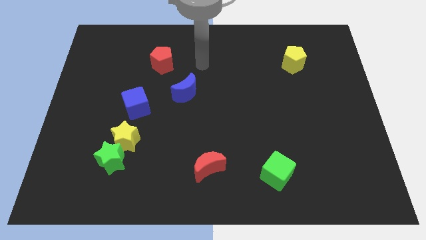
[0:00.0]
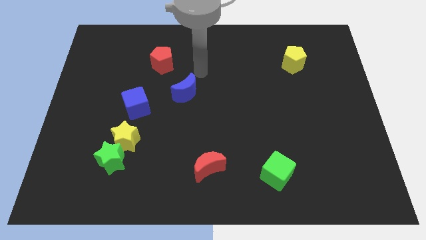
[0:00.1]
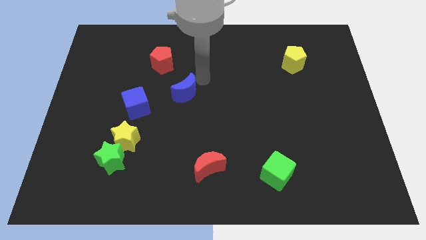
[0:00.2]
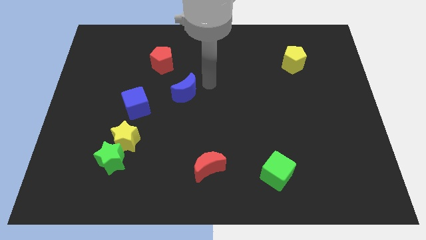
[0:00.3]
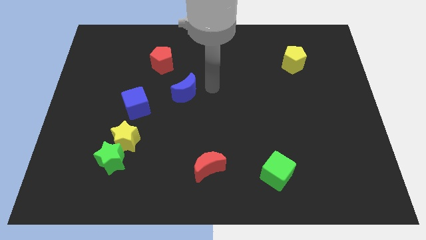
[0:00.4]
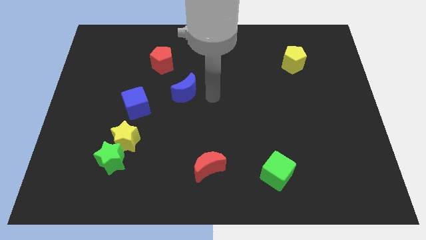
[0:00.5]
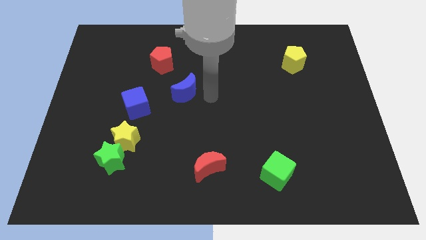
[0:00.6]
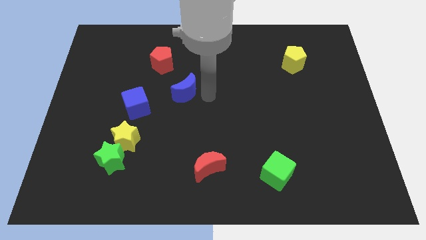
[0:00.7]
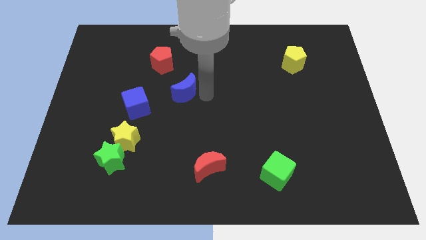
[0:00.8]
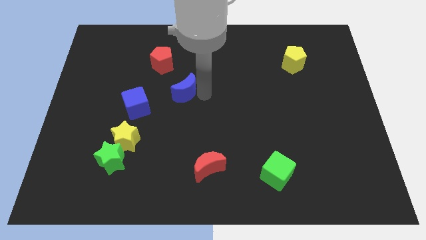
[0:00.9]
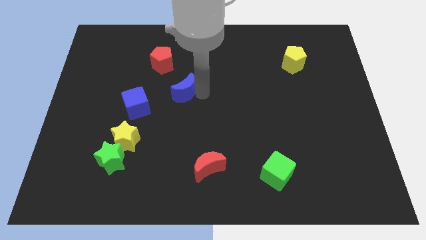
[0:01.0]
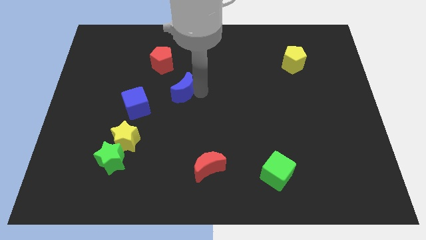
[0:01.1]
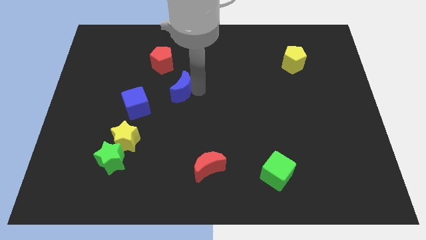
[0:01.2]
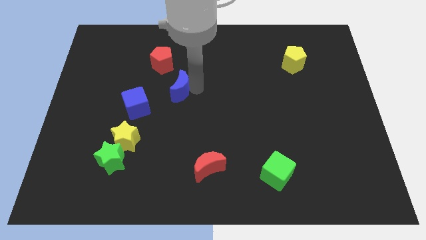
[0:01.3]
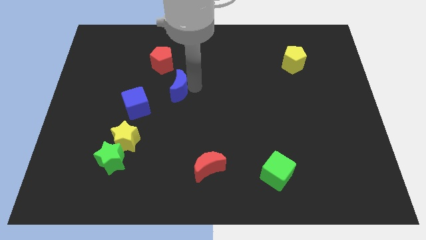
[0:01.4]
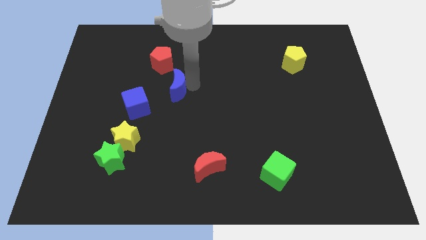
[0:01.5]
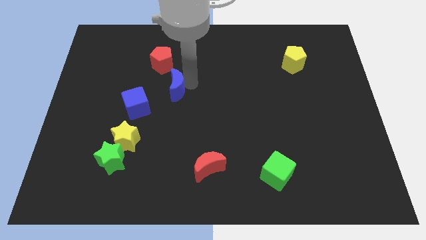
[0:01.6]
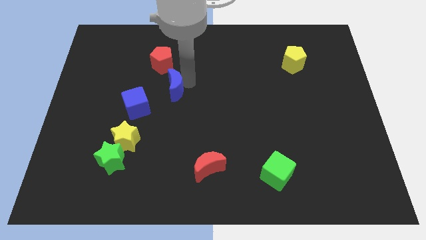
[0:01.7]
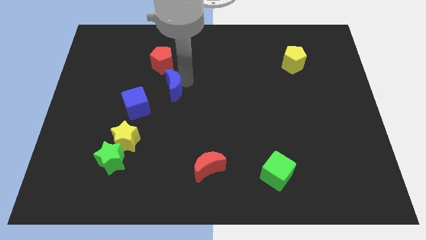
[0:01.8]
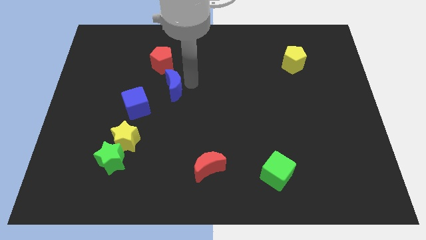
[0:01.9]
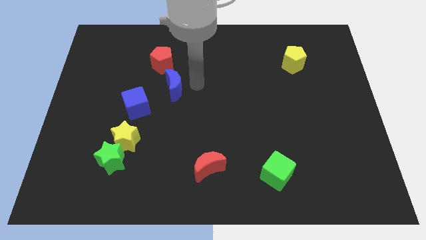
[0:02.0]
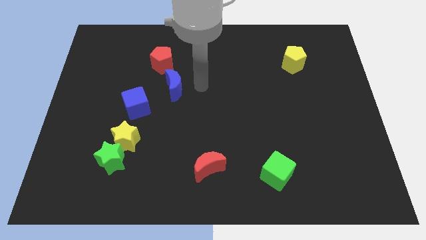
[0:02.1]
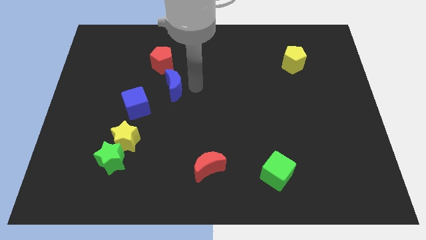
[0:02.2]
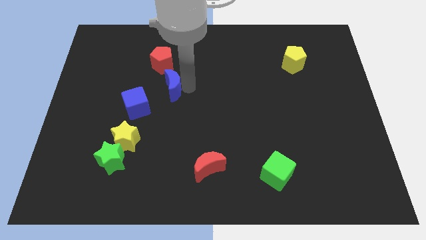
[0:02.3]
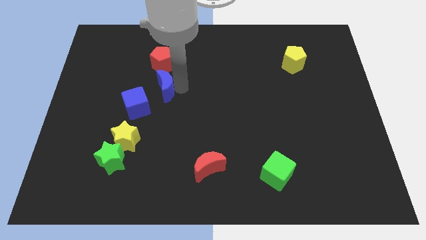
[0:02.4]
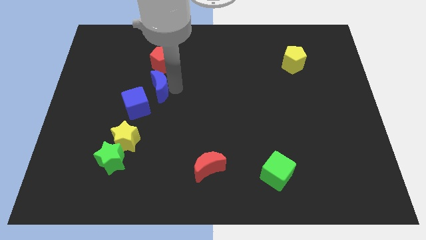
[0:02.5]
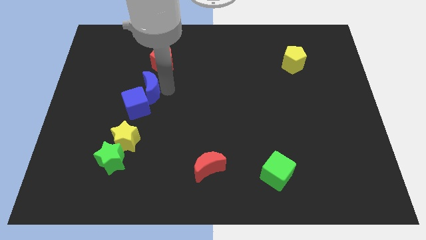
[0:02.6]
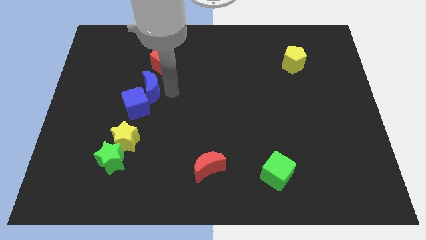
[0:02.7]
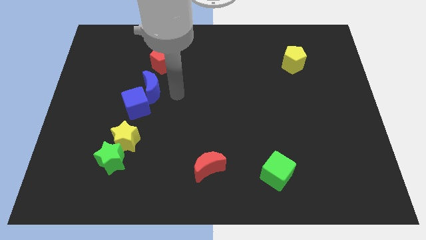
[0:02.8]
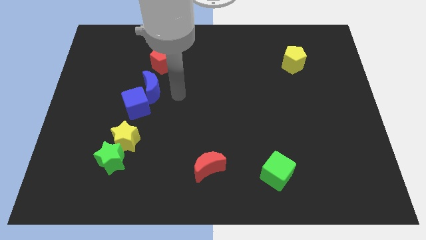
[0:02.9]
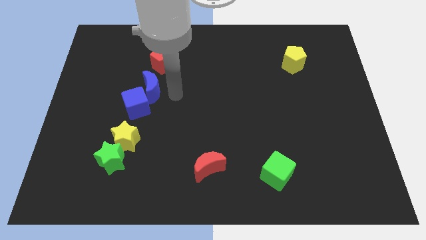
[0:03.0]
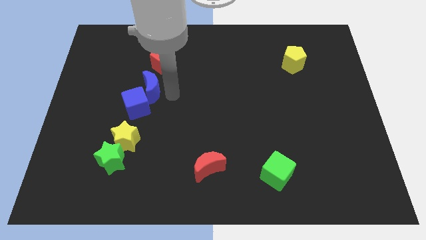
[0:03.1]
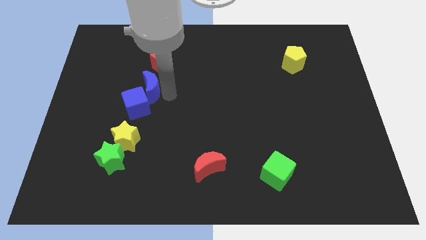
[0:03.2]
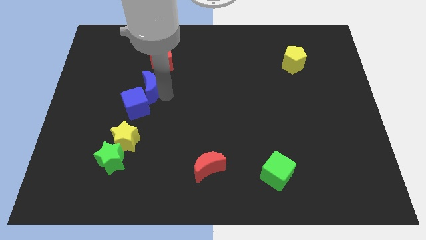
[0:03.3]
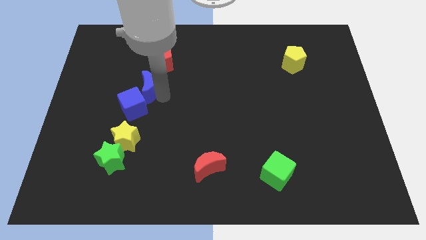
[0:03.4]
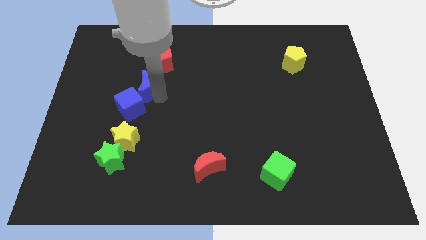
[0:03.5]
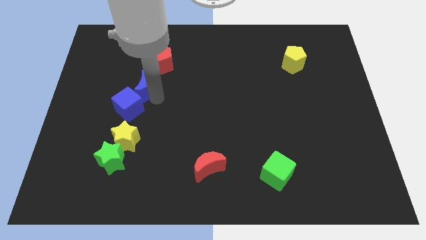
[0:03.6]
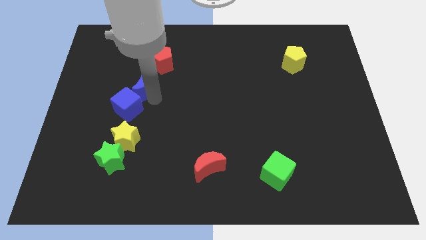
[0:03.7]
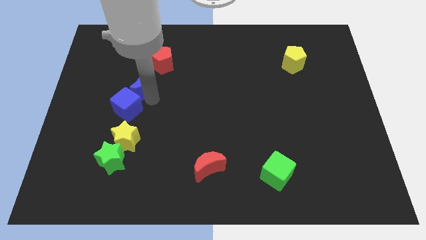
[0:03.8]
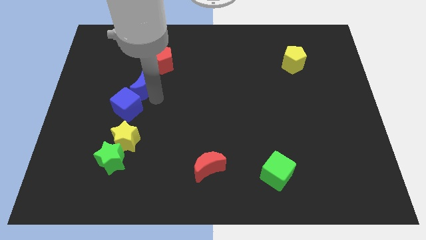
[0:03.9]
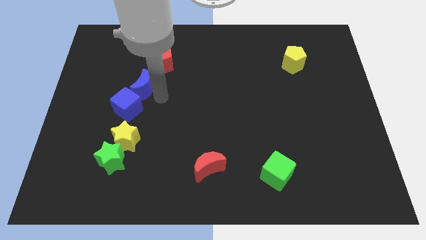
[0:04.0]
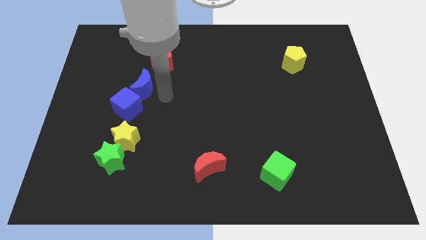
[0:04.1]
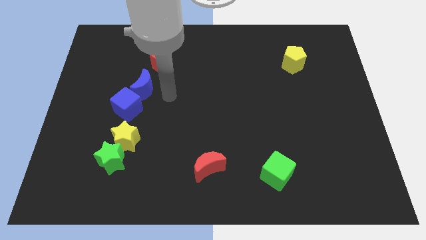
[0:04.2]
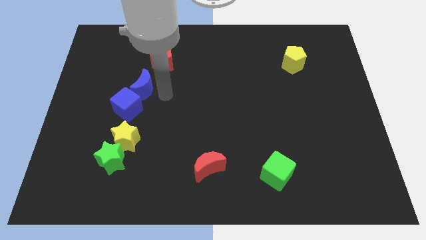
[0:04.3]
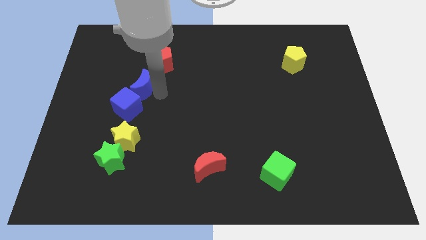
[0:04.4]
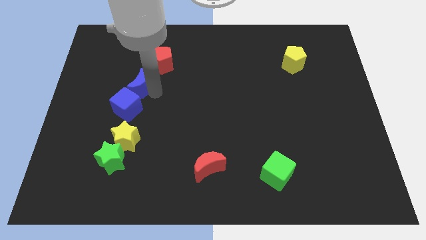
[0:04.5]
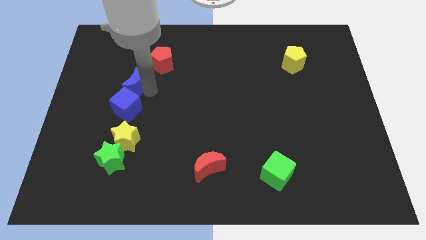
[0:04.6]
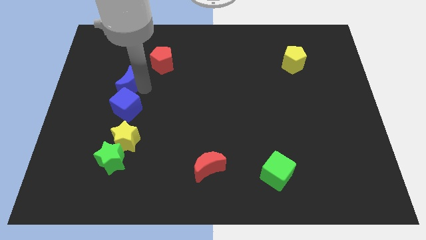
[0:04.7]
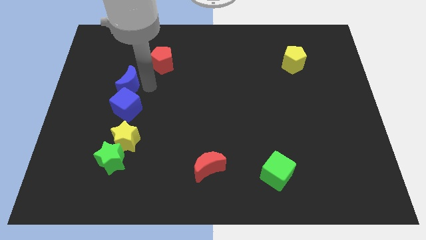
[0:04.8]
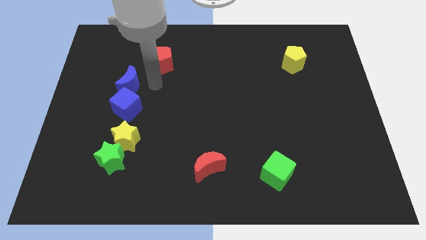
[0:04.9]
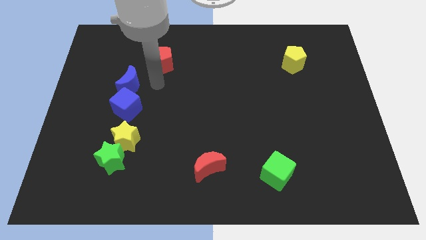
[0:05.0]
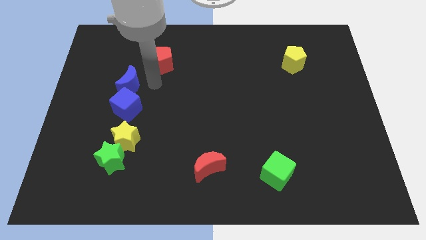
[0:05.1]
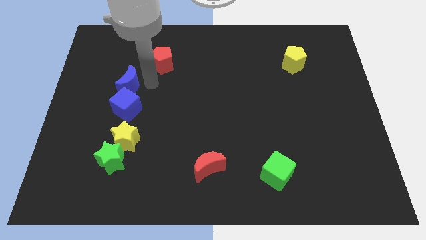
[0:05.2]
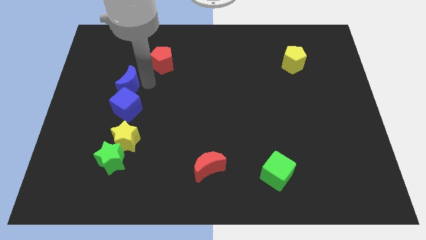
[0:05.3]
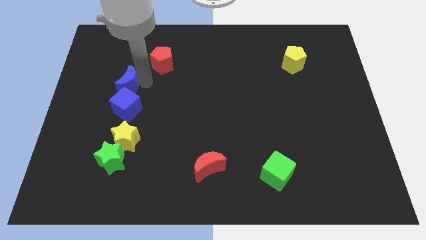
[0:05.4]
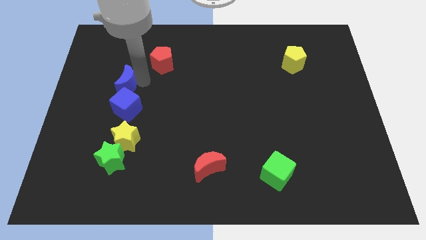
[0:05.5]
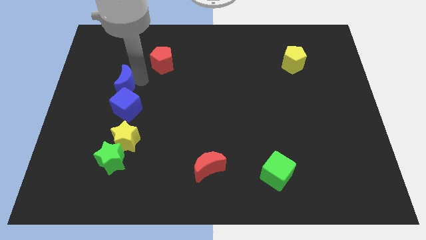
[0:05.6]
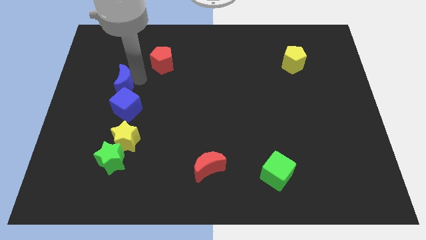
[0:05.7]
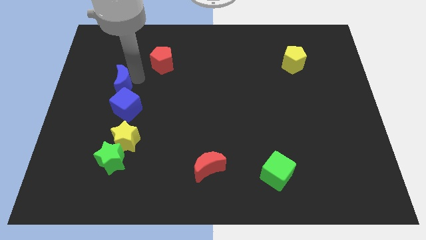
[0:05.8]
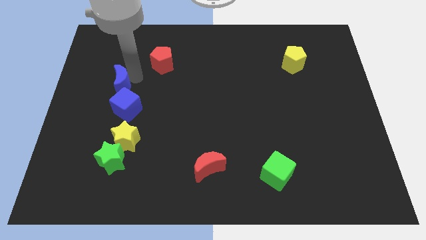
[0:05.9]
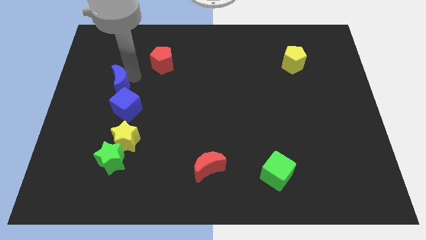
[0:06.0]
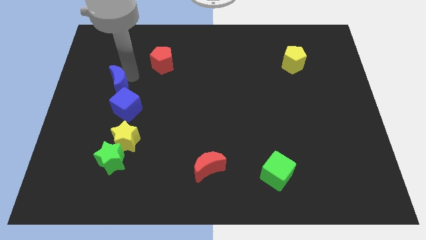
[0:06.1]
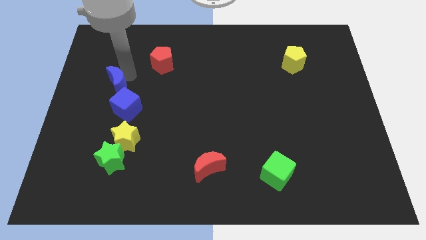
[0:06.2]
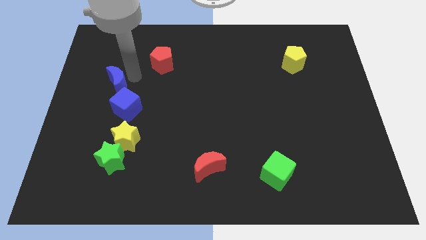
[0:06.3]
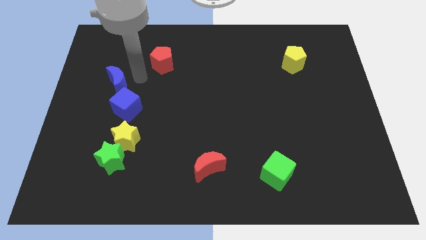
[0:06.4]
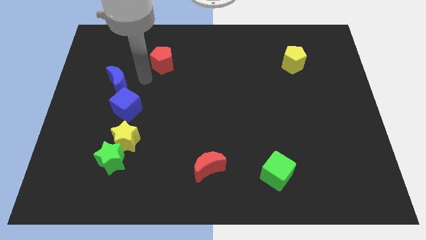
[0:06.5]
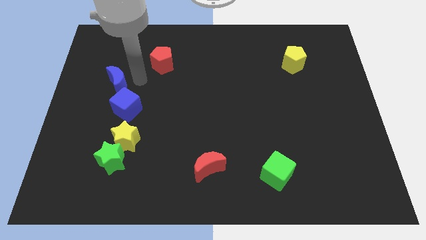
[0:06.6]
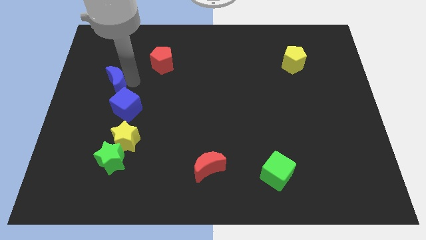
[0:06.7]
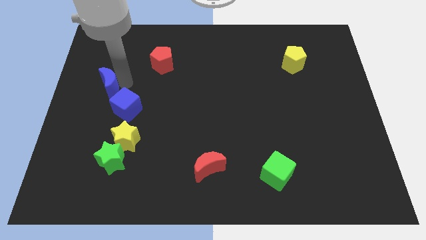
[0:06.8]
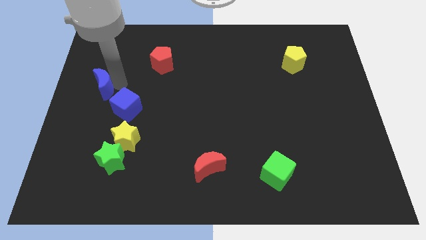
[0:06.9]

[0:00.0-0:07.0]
move the blue moon to the center left
